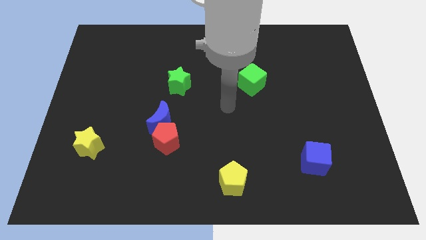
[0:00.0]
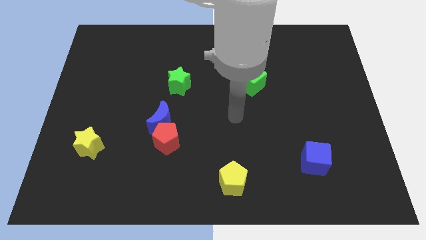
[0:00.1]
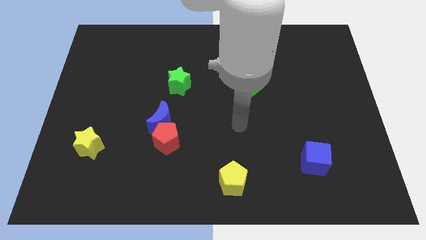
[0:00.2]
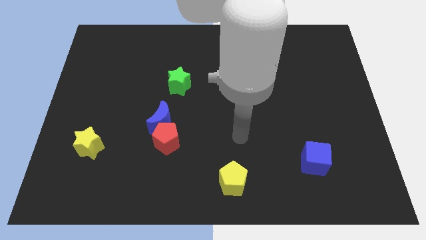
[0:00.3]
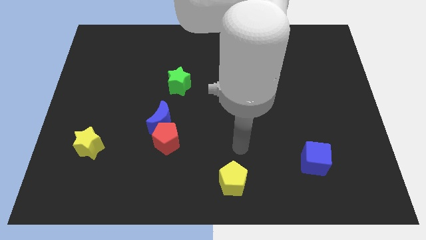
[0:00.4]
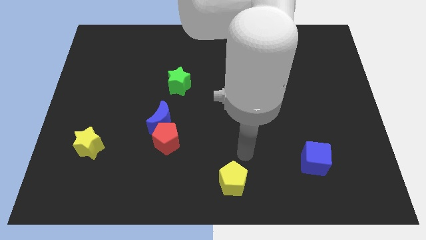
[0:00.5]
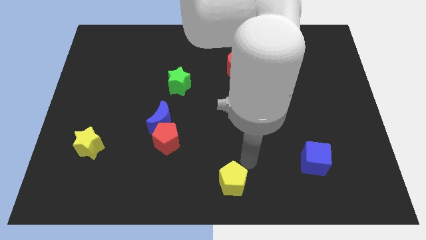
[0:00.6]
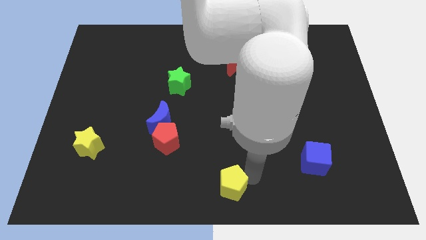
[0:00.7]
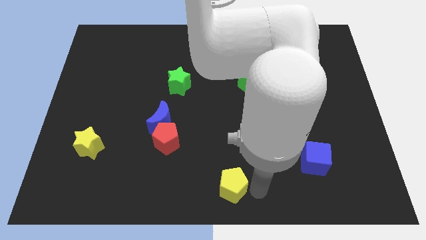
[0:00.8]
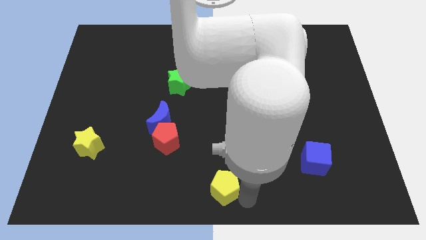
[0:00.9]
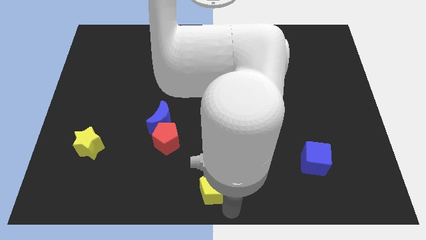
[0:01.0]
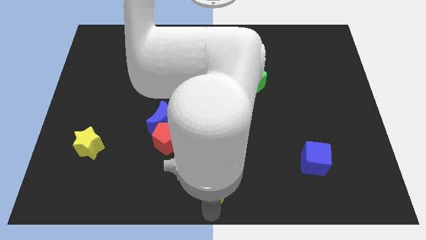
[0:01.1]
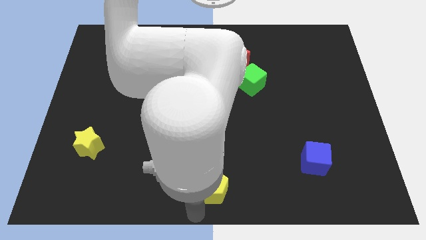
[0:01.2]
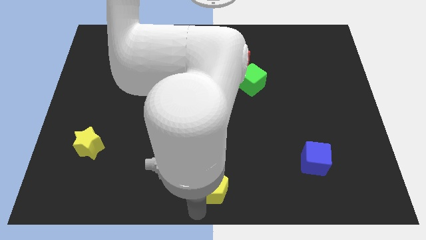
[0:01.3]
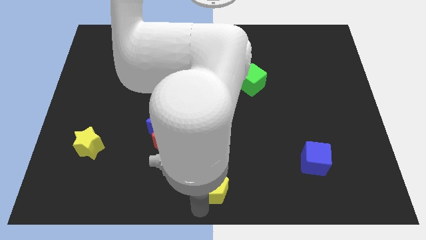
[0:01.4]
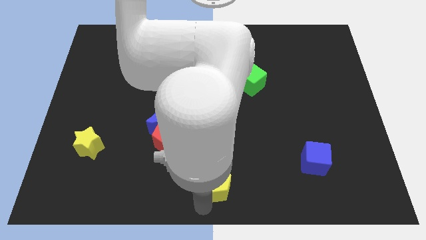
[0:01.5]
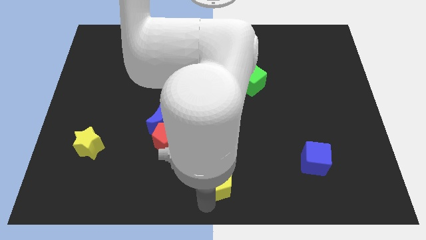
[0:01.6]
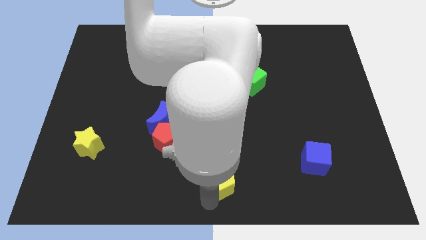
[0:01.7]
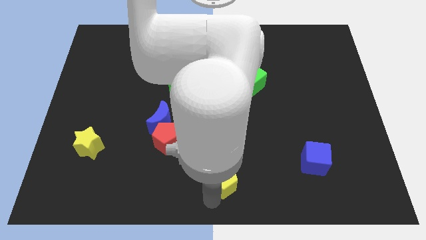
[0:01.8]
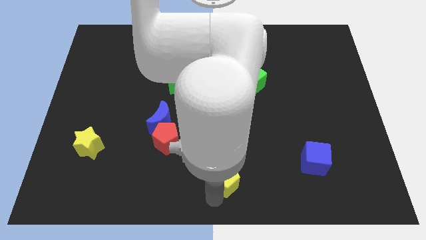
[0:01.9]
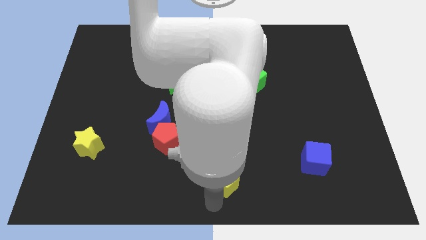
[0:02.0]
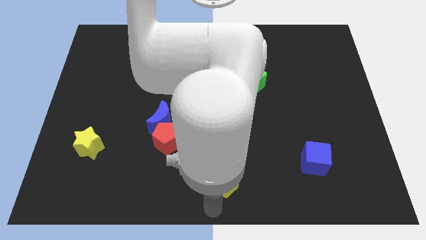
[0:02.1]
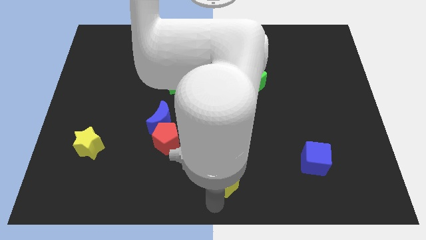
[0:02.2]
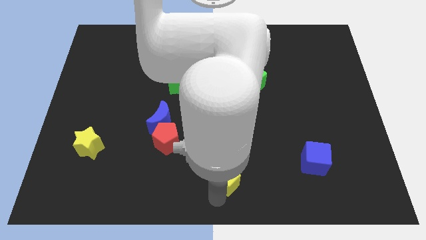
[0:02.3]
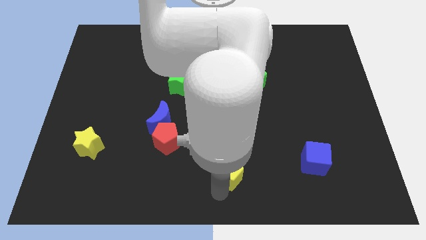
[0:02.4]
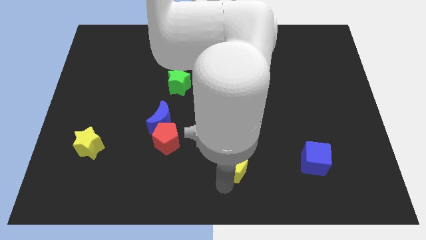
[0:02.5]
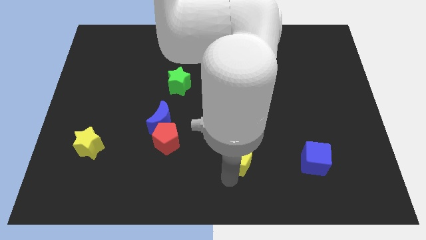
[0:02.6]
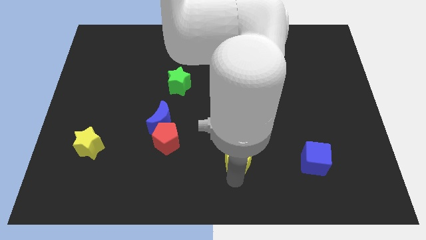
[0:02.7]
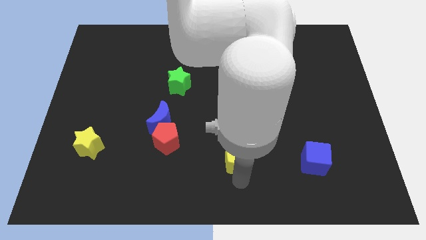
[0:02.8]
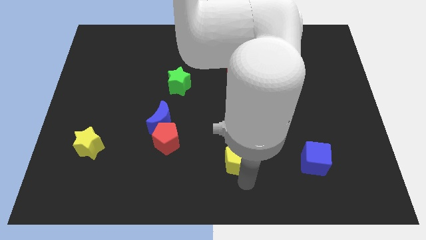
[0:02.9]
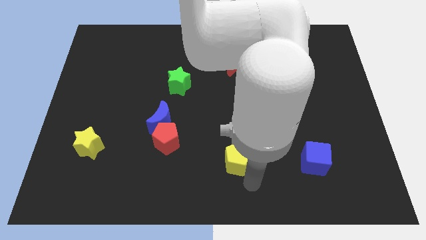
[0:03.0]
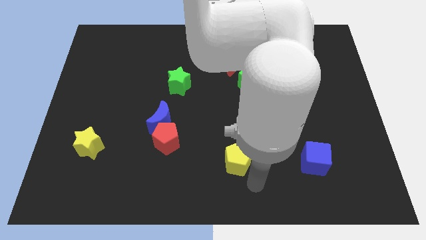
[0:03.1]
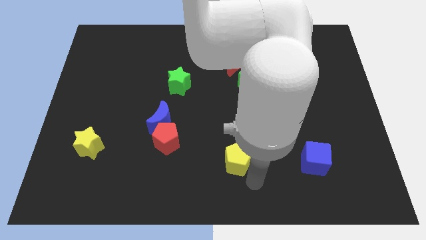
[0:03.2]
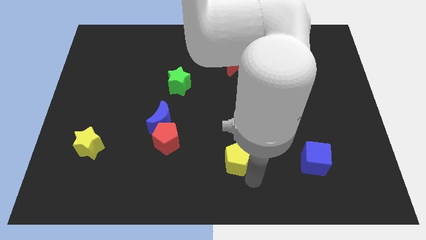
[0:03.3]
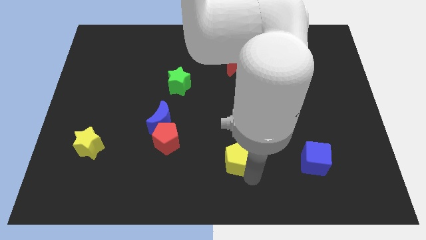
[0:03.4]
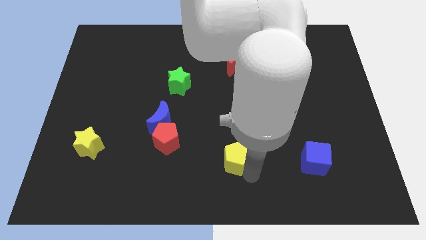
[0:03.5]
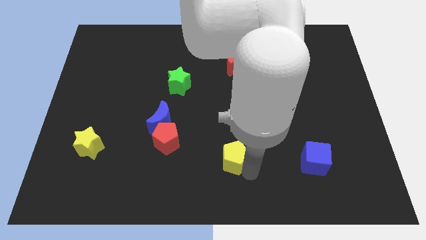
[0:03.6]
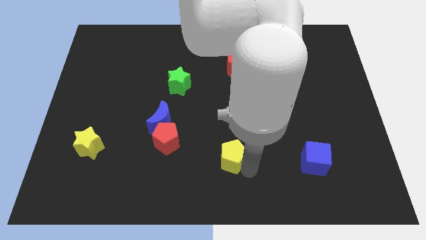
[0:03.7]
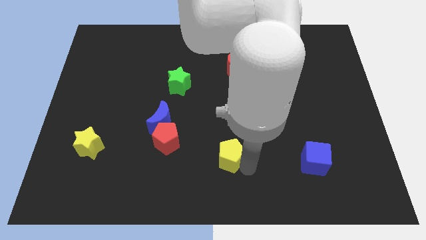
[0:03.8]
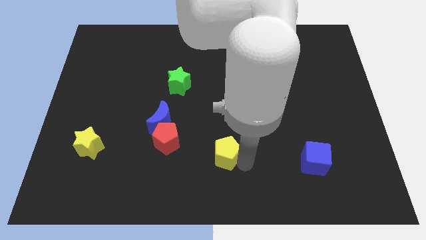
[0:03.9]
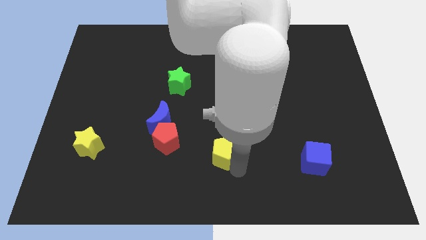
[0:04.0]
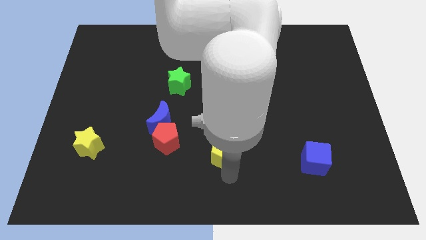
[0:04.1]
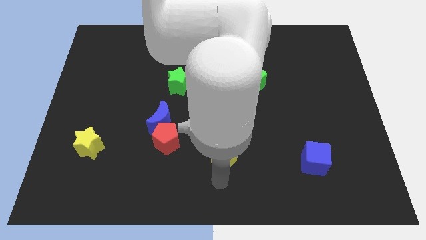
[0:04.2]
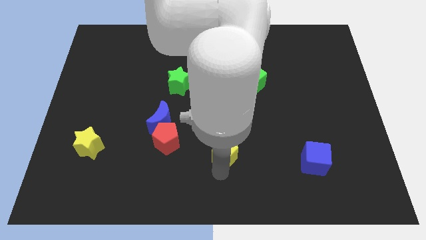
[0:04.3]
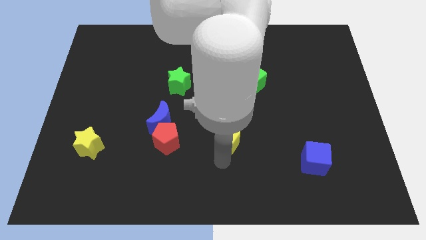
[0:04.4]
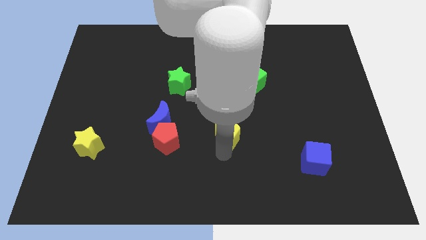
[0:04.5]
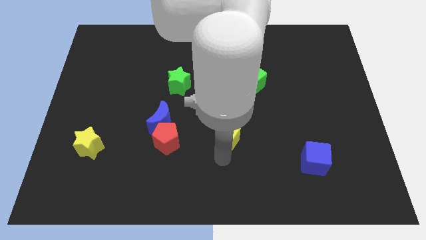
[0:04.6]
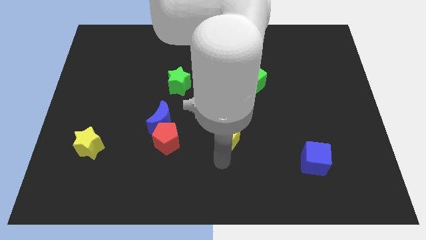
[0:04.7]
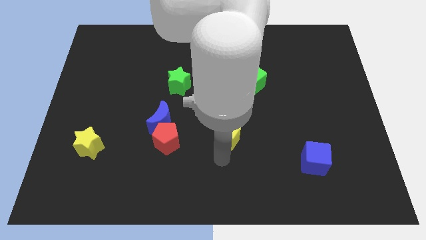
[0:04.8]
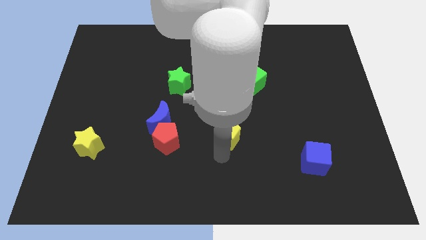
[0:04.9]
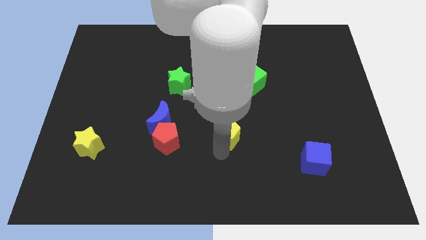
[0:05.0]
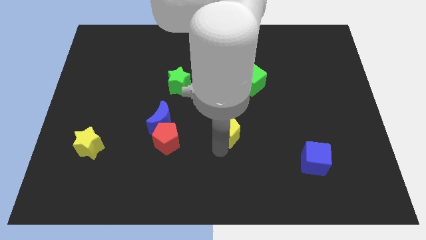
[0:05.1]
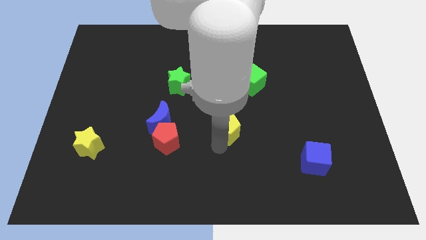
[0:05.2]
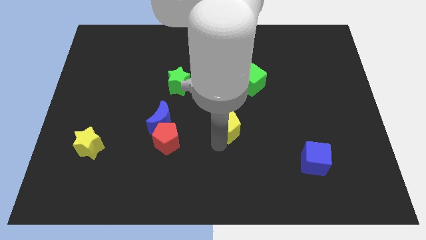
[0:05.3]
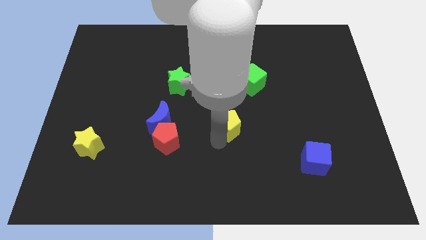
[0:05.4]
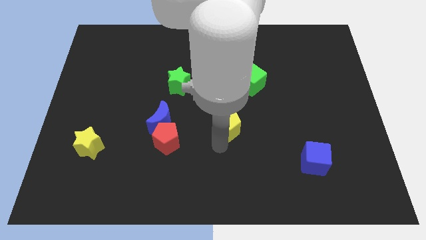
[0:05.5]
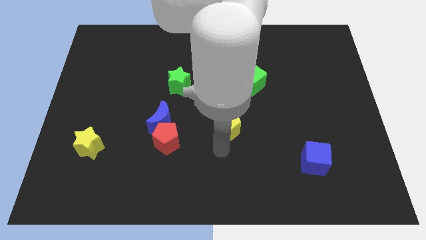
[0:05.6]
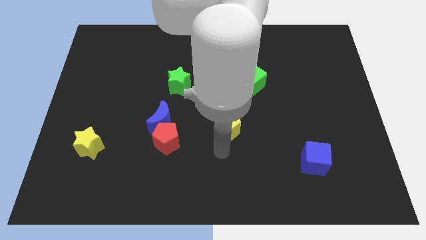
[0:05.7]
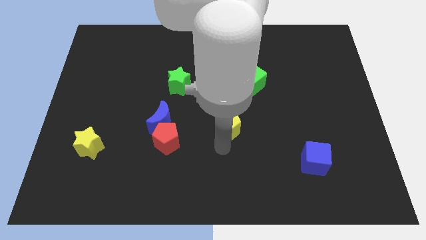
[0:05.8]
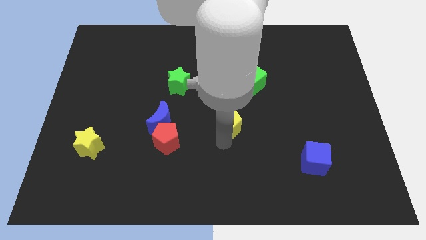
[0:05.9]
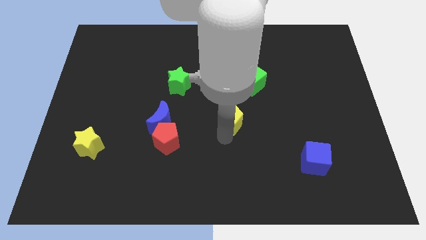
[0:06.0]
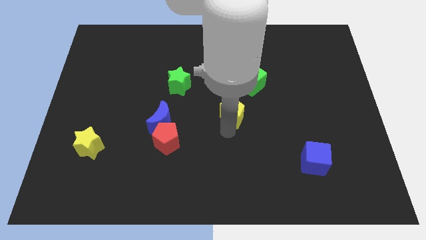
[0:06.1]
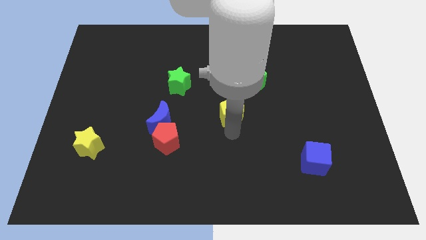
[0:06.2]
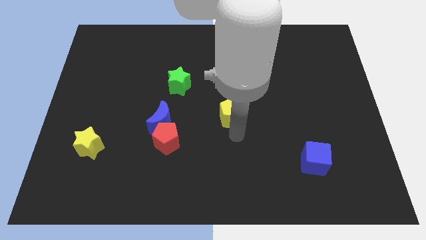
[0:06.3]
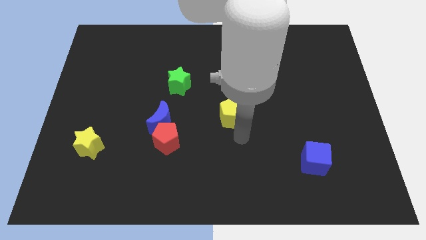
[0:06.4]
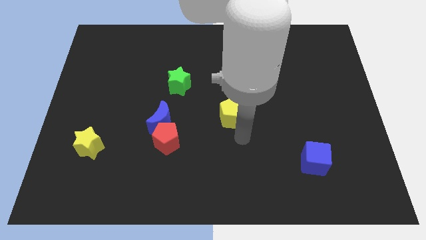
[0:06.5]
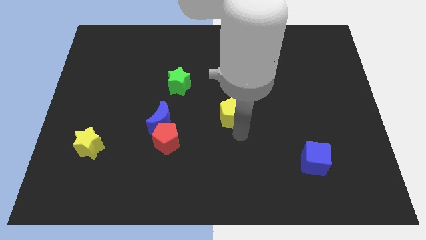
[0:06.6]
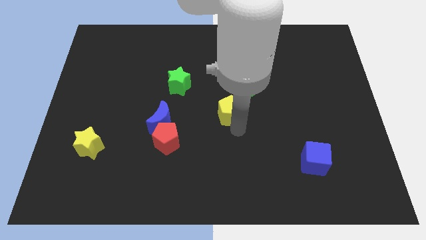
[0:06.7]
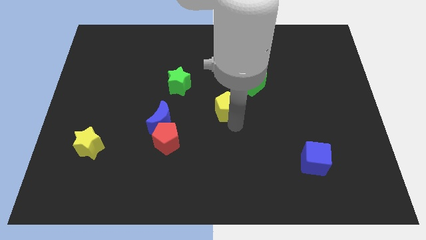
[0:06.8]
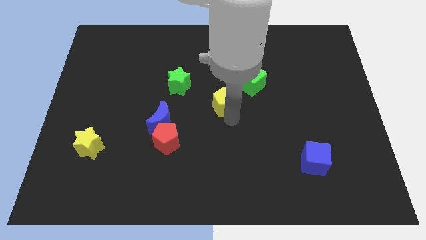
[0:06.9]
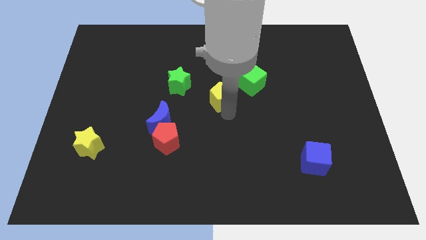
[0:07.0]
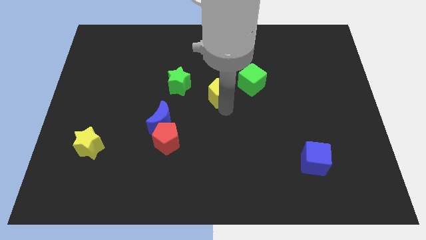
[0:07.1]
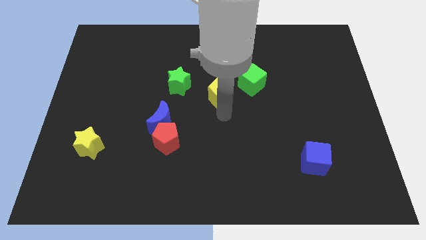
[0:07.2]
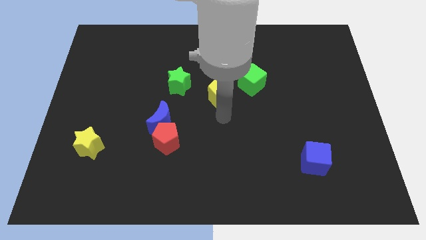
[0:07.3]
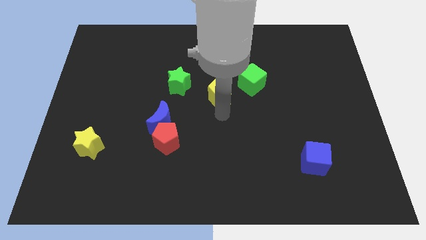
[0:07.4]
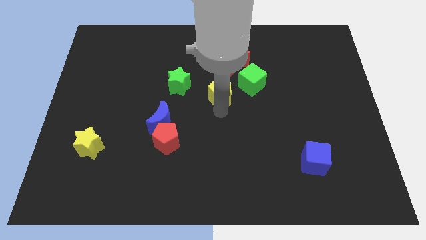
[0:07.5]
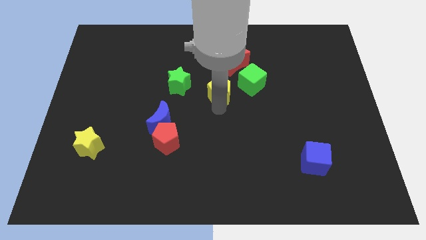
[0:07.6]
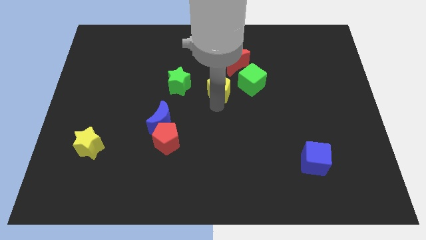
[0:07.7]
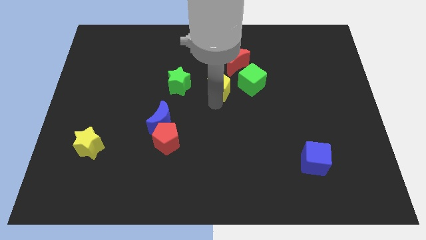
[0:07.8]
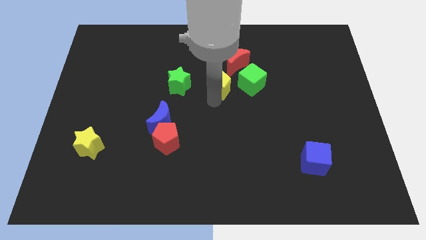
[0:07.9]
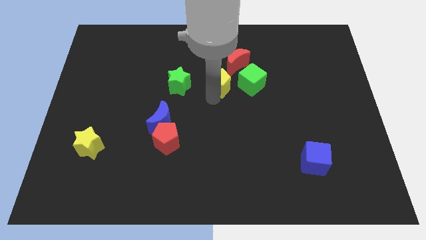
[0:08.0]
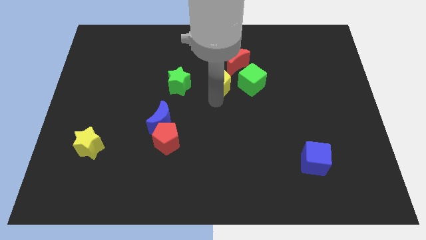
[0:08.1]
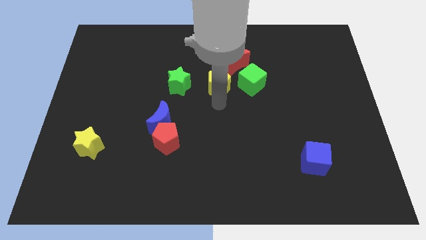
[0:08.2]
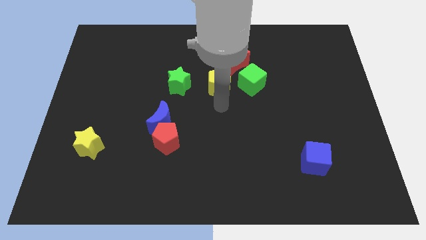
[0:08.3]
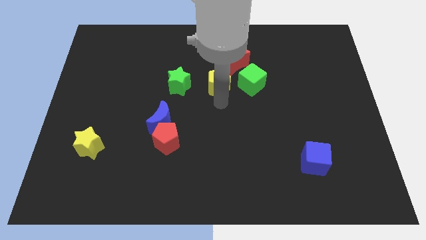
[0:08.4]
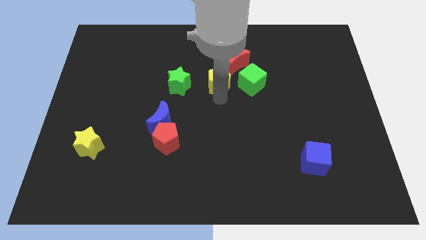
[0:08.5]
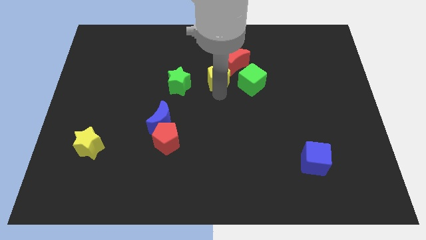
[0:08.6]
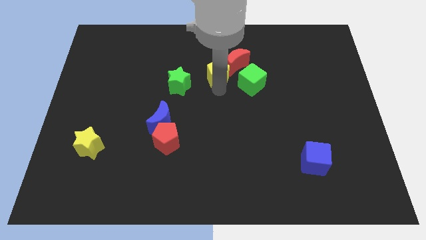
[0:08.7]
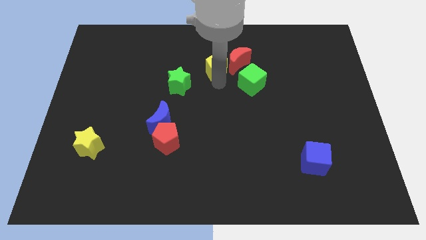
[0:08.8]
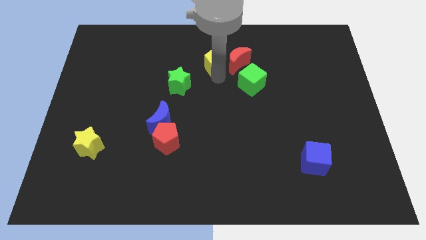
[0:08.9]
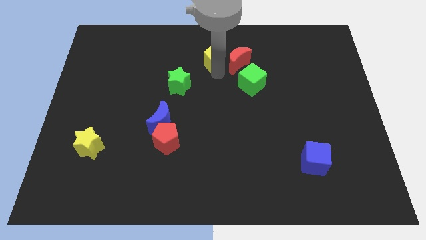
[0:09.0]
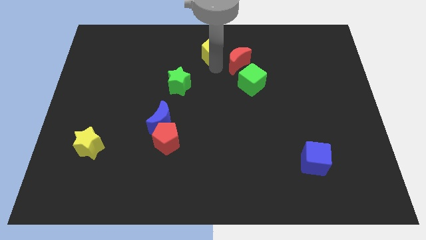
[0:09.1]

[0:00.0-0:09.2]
slide the yellow pentagon to the top
